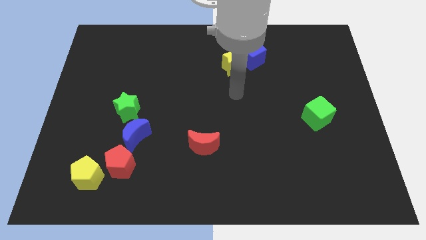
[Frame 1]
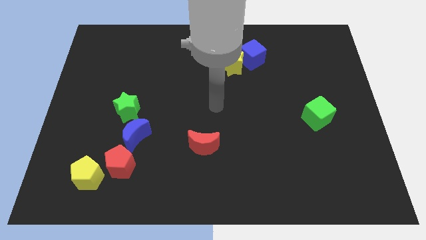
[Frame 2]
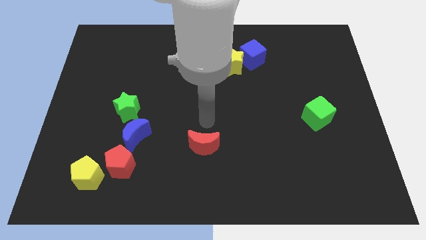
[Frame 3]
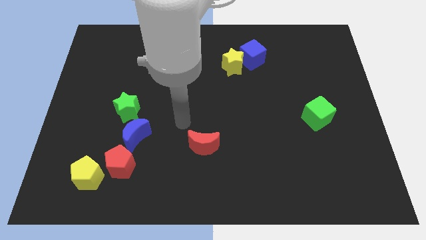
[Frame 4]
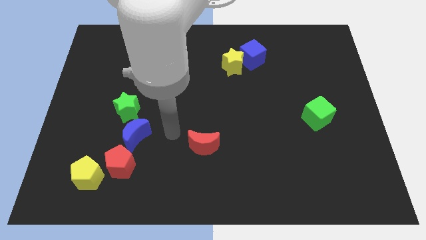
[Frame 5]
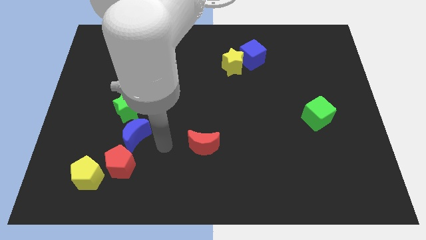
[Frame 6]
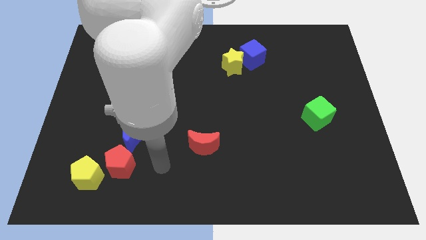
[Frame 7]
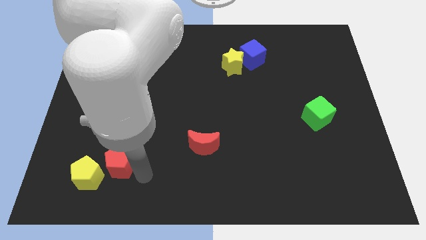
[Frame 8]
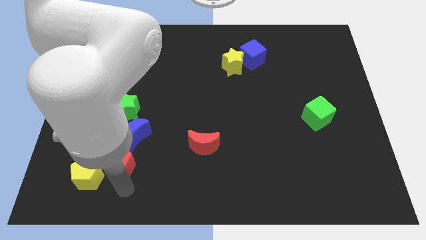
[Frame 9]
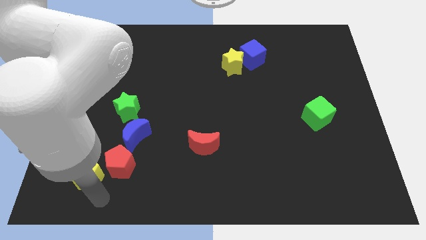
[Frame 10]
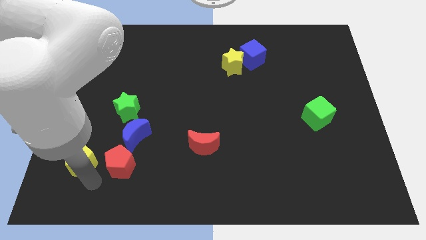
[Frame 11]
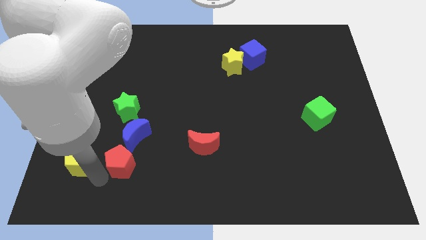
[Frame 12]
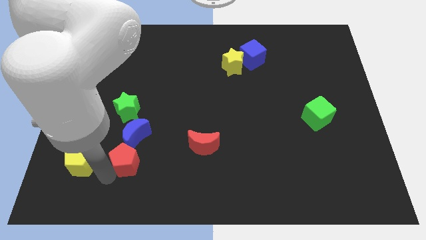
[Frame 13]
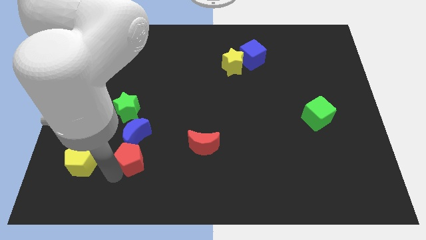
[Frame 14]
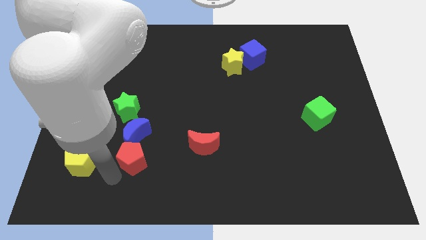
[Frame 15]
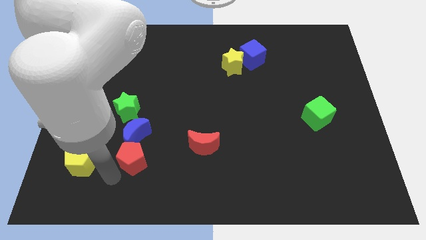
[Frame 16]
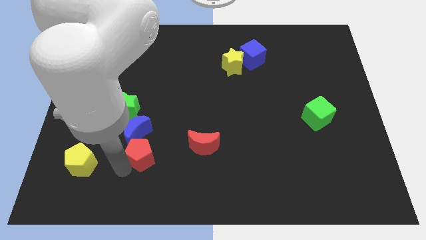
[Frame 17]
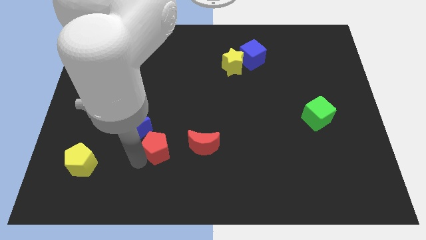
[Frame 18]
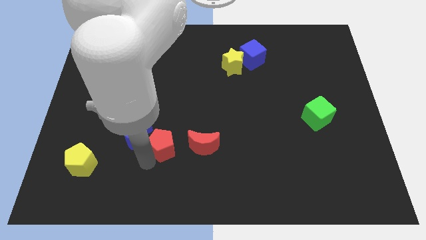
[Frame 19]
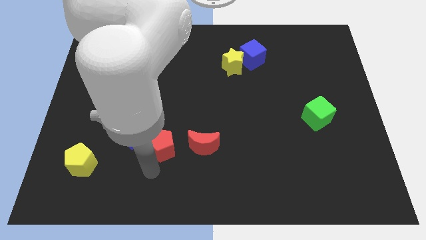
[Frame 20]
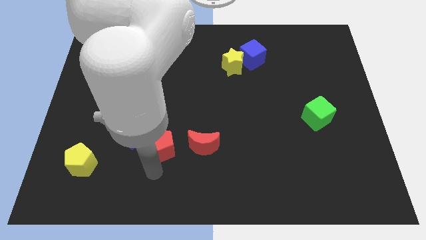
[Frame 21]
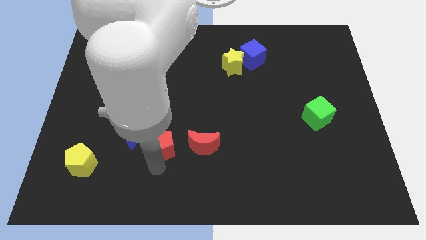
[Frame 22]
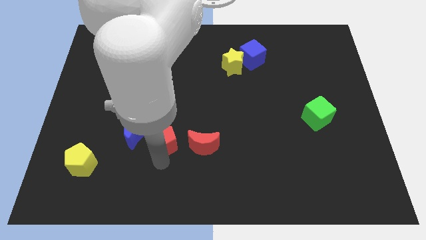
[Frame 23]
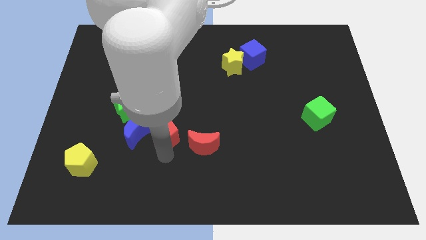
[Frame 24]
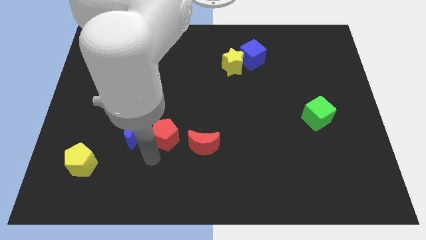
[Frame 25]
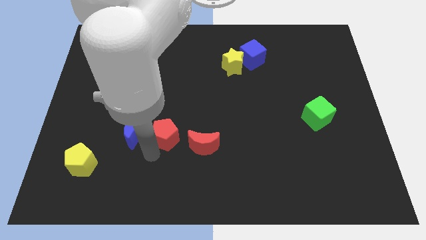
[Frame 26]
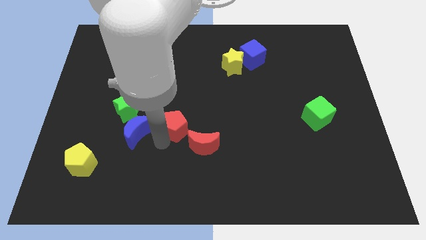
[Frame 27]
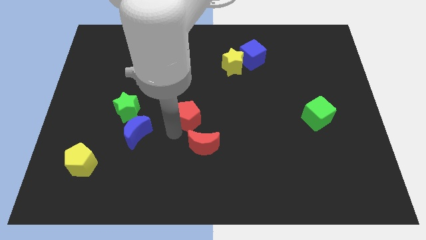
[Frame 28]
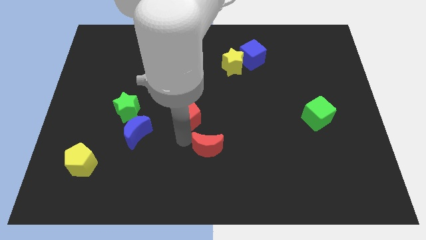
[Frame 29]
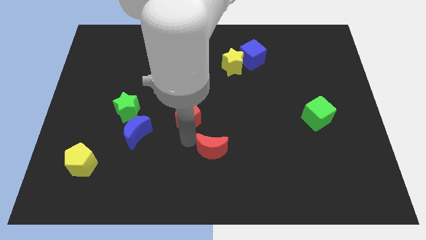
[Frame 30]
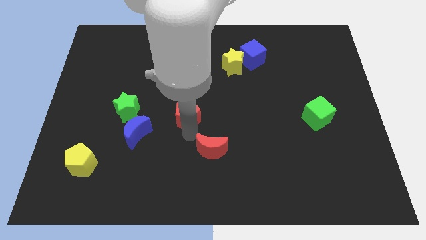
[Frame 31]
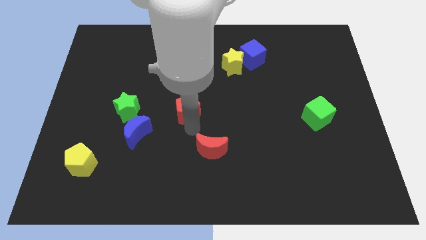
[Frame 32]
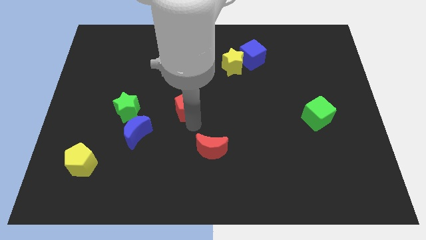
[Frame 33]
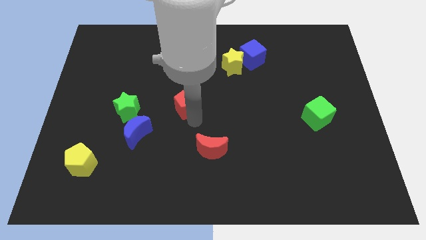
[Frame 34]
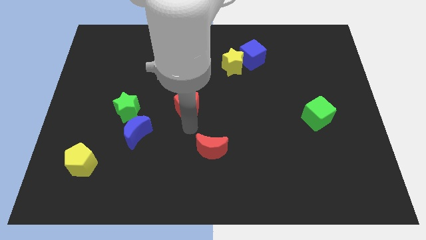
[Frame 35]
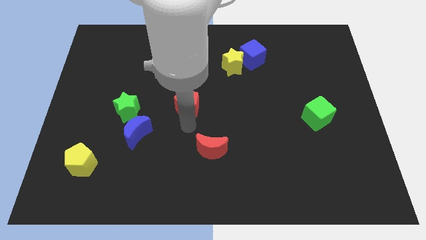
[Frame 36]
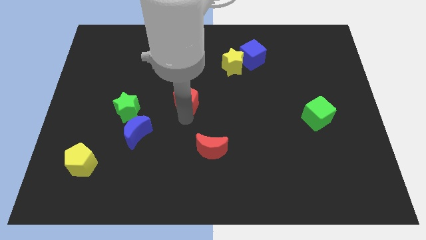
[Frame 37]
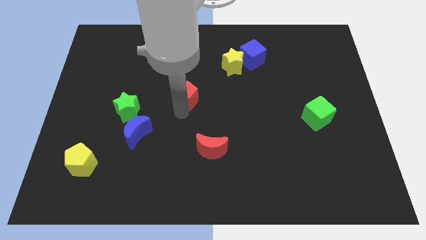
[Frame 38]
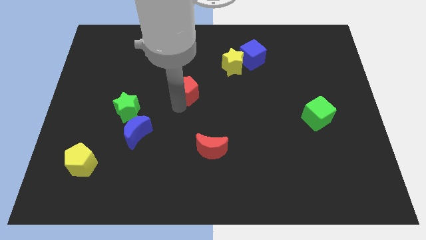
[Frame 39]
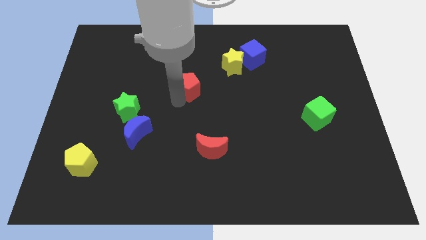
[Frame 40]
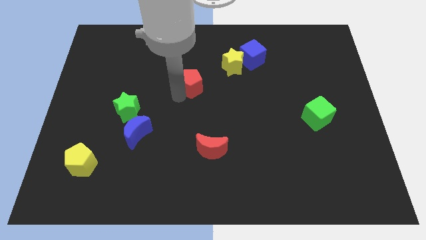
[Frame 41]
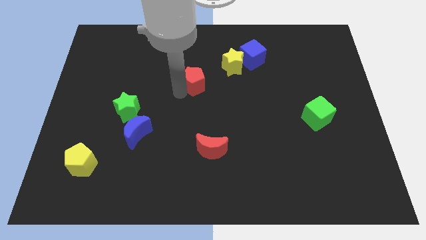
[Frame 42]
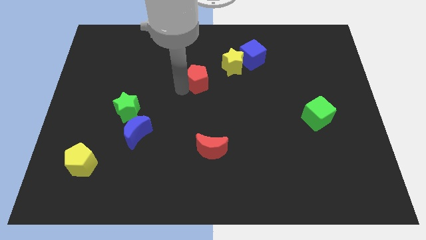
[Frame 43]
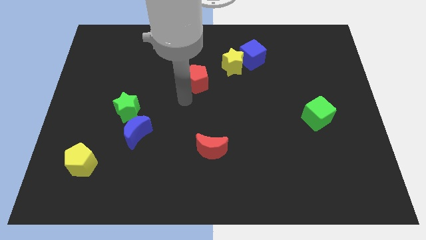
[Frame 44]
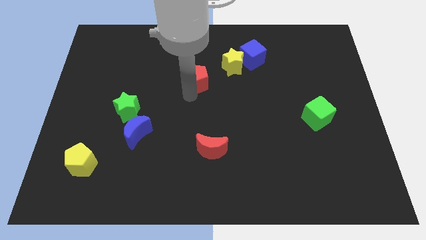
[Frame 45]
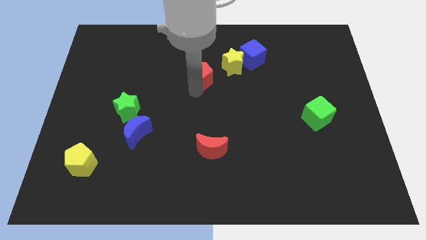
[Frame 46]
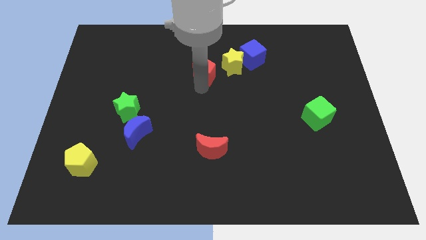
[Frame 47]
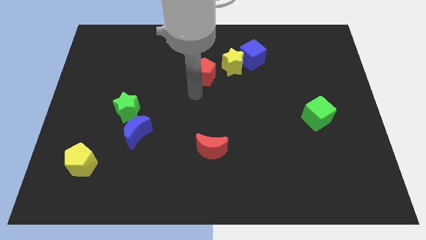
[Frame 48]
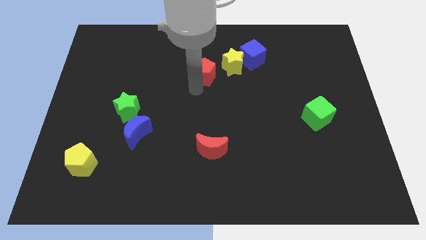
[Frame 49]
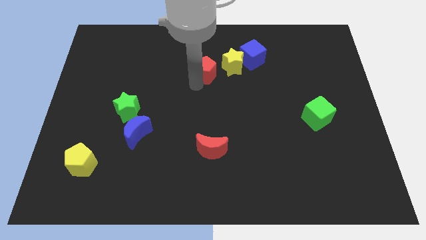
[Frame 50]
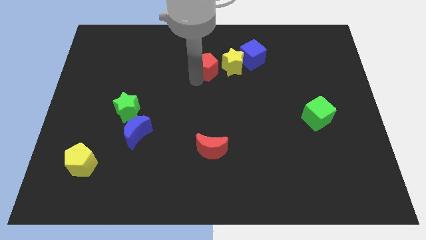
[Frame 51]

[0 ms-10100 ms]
push the red pentagon to the left of the blue cube

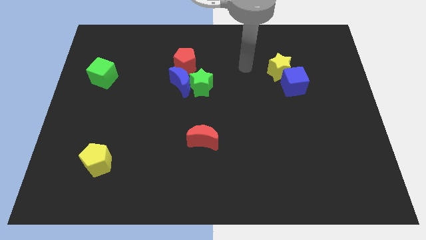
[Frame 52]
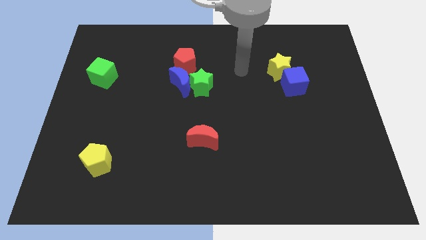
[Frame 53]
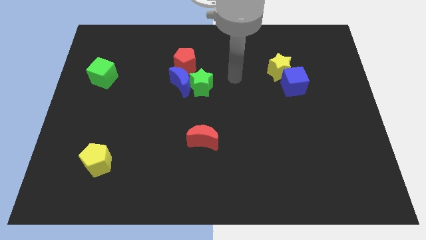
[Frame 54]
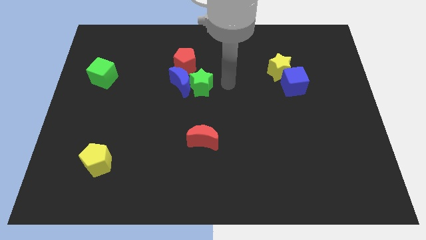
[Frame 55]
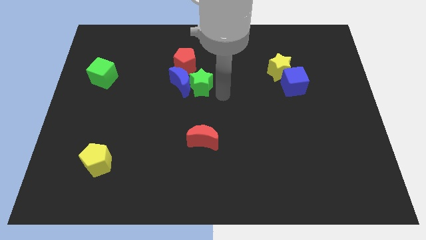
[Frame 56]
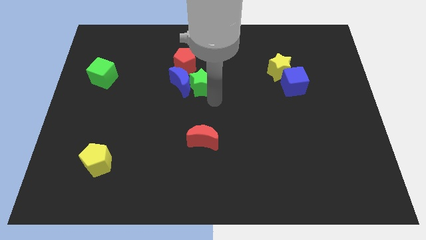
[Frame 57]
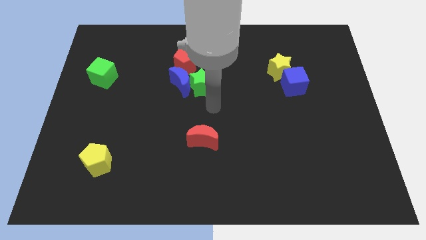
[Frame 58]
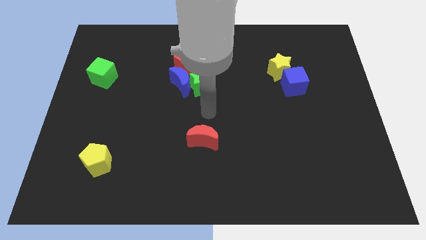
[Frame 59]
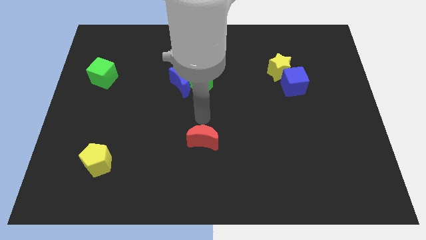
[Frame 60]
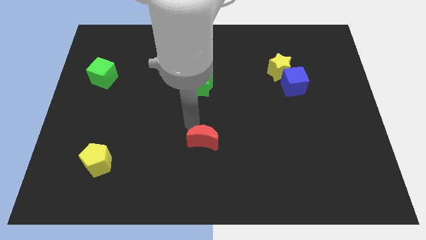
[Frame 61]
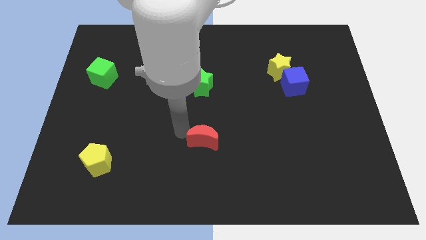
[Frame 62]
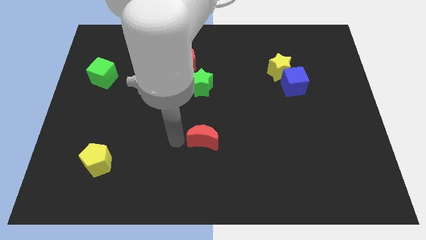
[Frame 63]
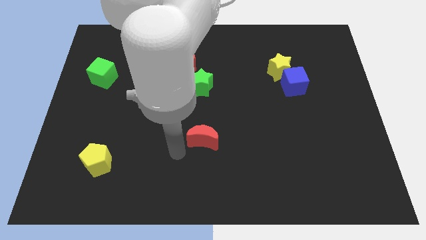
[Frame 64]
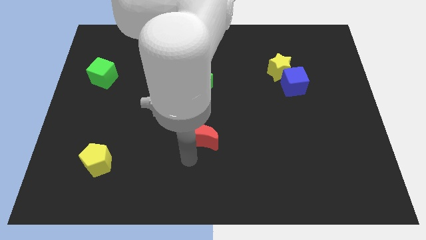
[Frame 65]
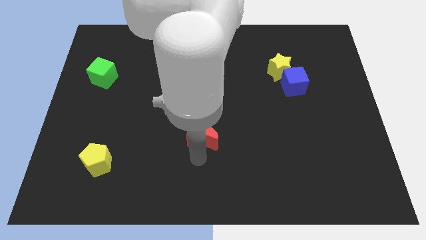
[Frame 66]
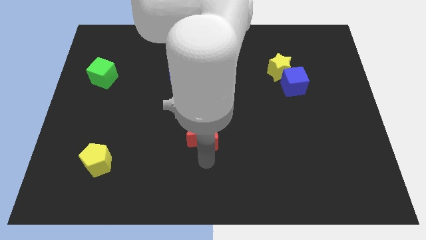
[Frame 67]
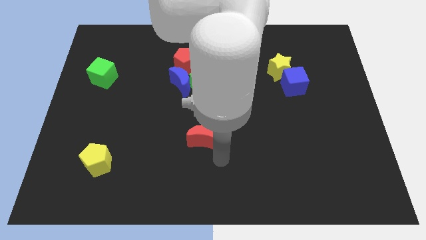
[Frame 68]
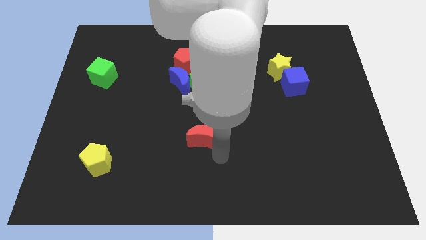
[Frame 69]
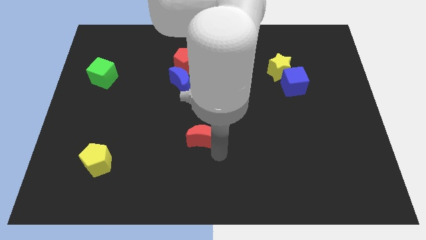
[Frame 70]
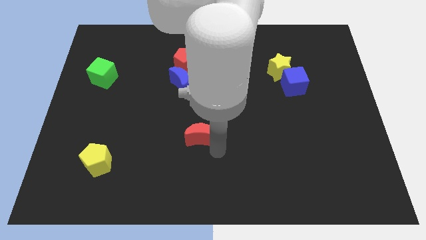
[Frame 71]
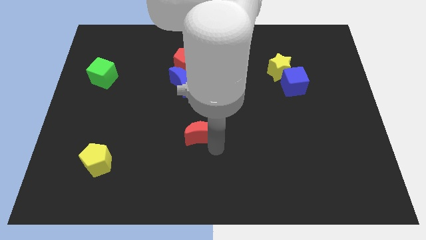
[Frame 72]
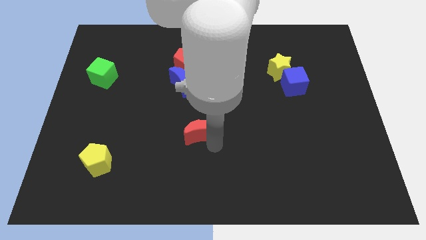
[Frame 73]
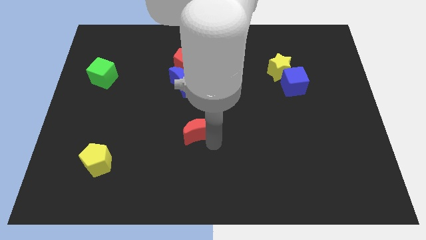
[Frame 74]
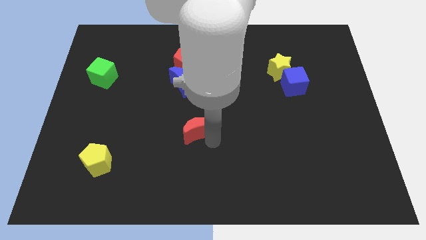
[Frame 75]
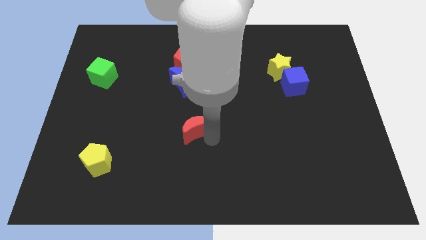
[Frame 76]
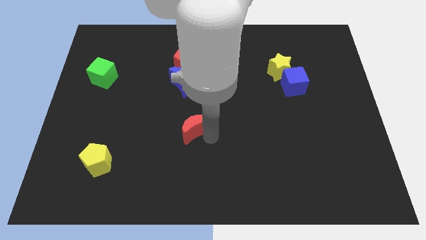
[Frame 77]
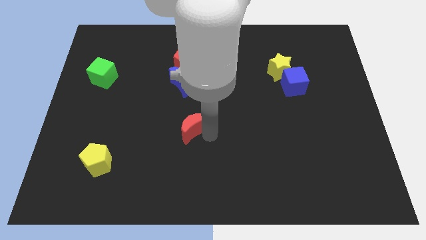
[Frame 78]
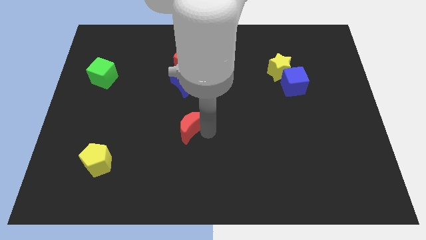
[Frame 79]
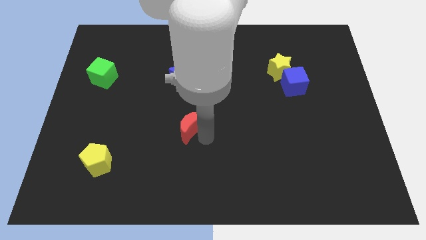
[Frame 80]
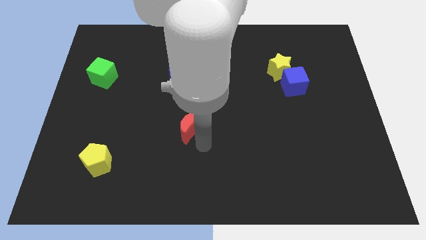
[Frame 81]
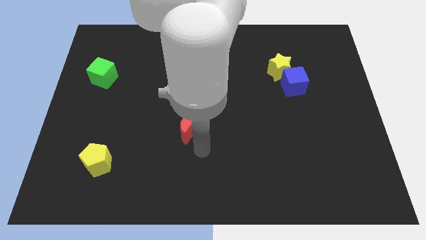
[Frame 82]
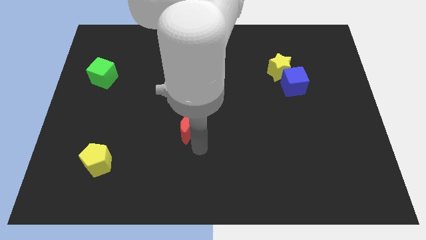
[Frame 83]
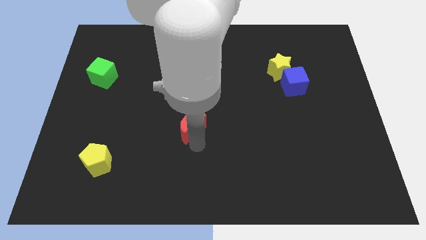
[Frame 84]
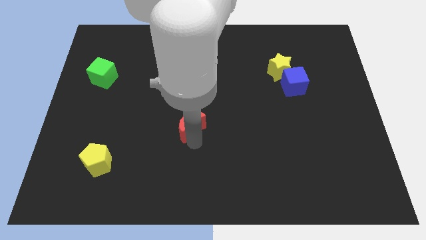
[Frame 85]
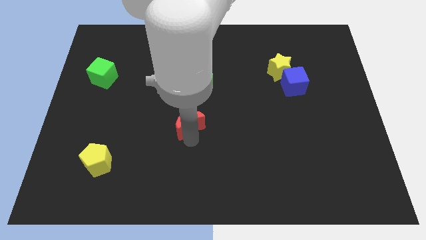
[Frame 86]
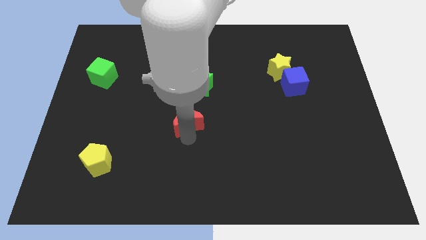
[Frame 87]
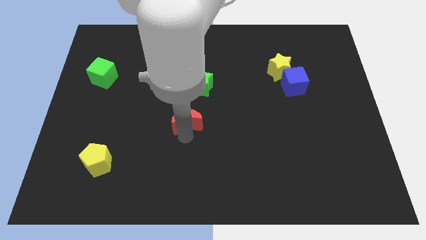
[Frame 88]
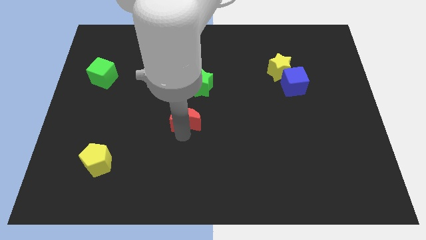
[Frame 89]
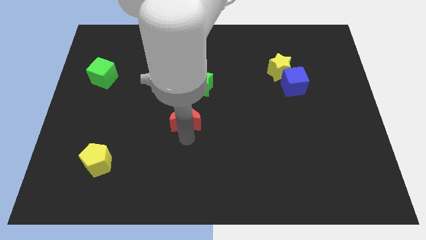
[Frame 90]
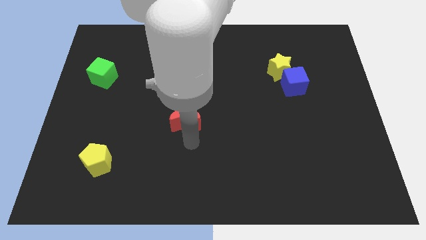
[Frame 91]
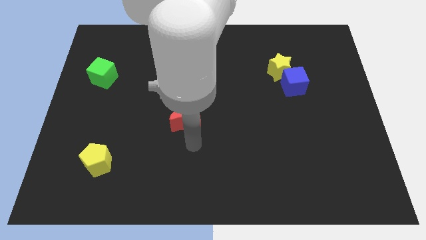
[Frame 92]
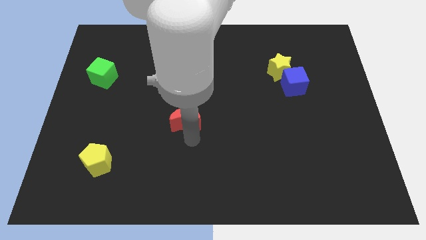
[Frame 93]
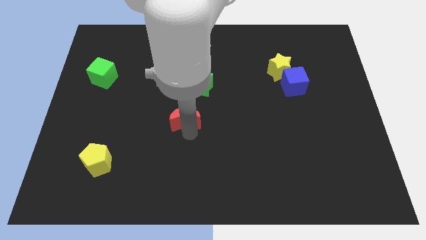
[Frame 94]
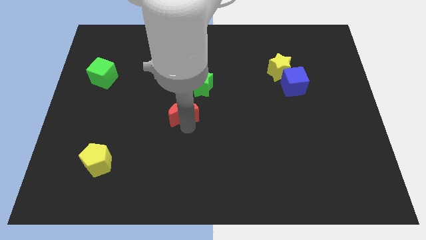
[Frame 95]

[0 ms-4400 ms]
move the red moon to the bottom left side of the green star
